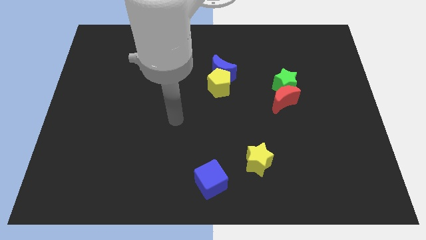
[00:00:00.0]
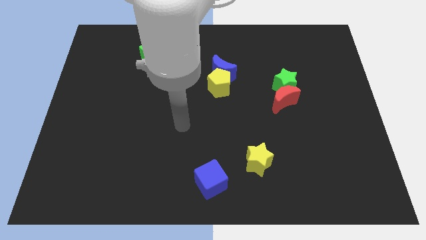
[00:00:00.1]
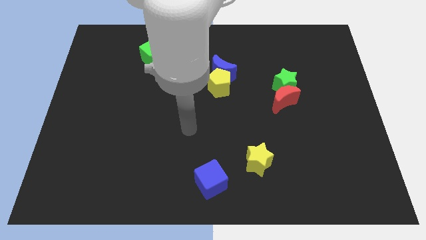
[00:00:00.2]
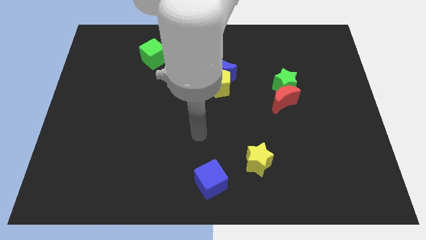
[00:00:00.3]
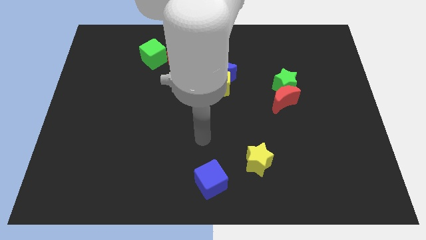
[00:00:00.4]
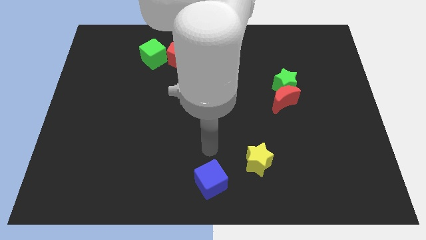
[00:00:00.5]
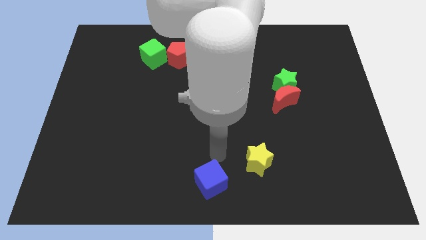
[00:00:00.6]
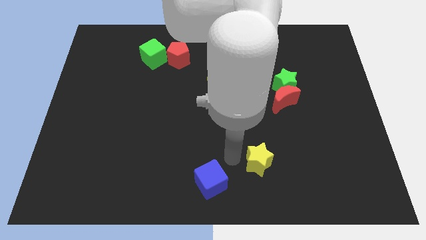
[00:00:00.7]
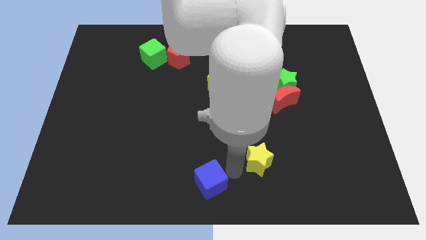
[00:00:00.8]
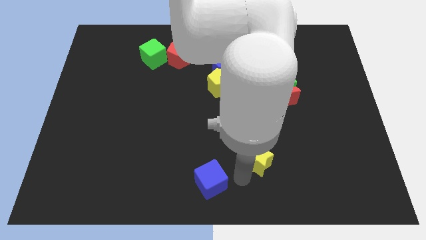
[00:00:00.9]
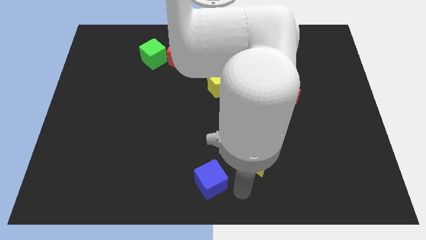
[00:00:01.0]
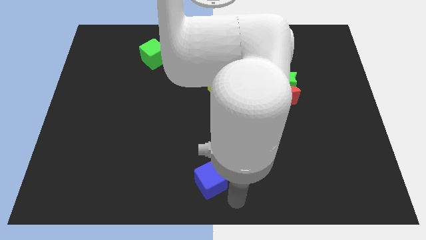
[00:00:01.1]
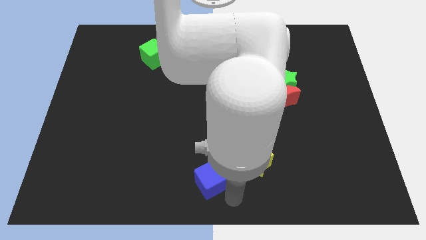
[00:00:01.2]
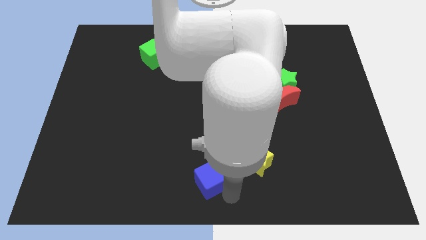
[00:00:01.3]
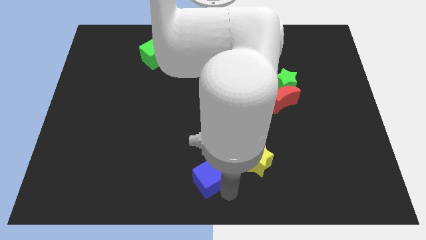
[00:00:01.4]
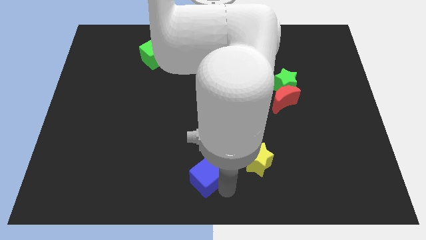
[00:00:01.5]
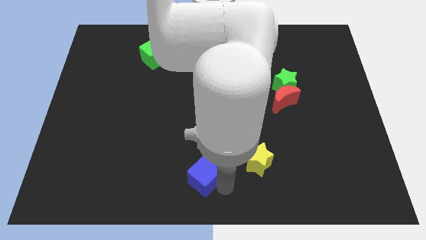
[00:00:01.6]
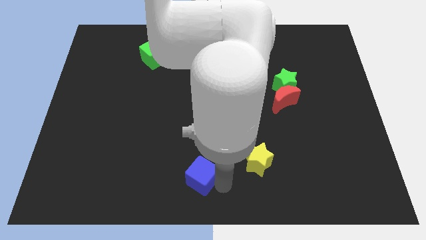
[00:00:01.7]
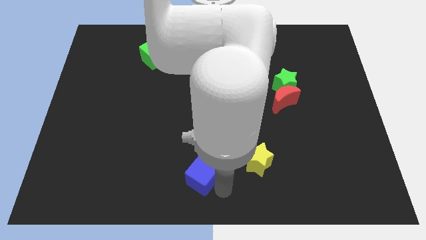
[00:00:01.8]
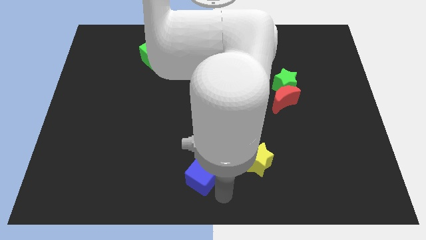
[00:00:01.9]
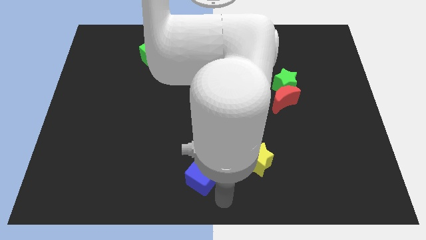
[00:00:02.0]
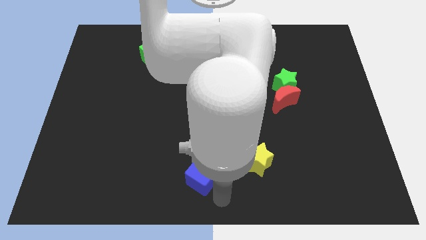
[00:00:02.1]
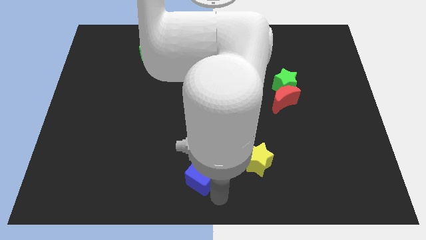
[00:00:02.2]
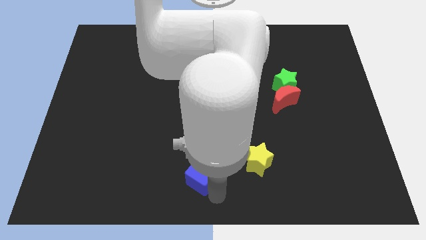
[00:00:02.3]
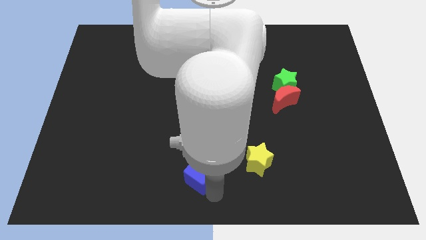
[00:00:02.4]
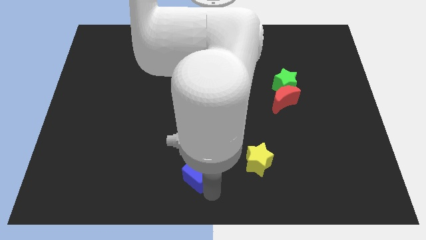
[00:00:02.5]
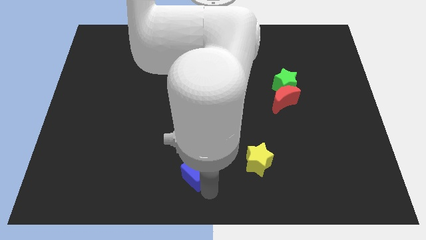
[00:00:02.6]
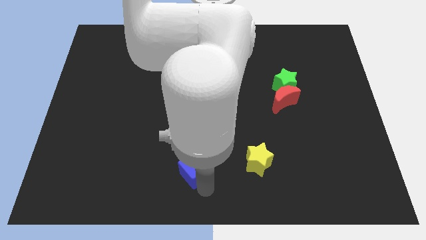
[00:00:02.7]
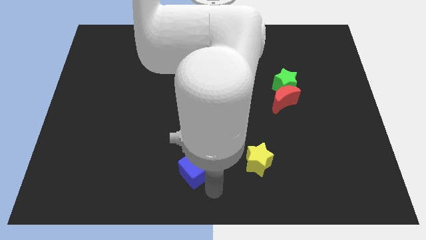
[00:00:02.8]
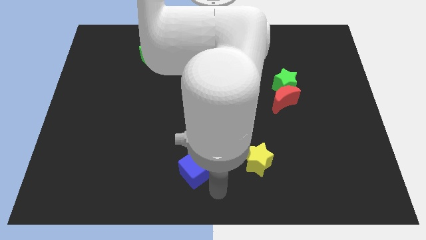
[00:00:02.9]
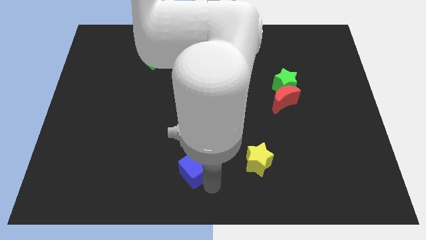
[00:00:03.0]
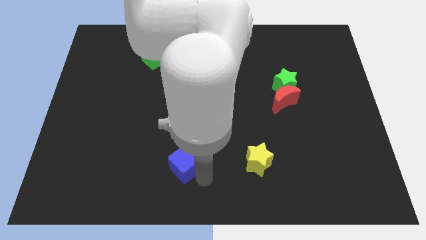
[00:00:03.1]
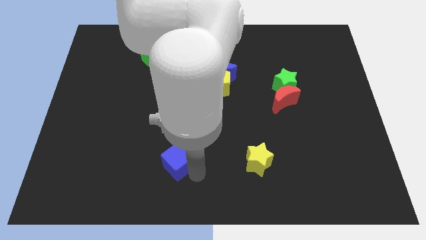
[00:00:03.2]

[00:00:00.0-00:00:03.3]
push the blue cube upwards and left somewhat

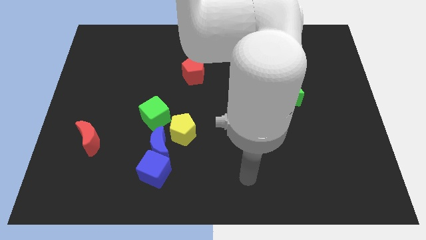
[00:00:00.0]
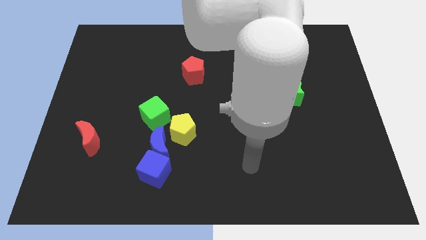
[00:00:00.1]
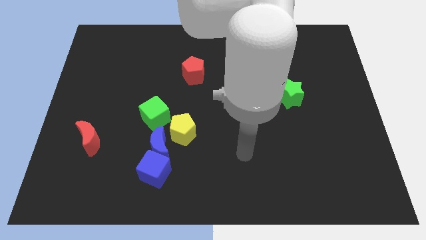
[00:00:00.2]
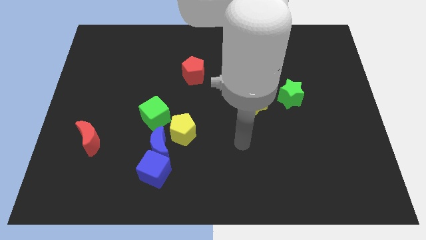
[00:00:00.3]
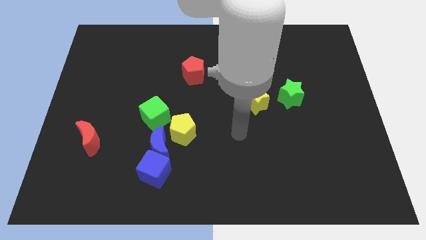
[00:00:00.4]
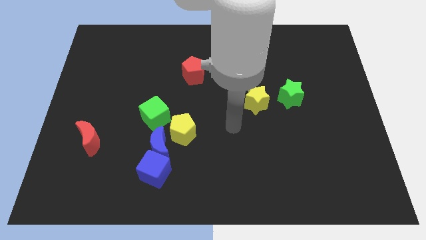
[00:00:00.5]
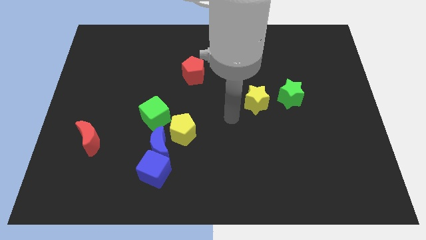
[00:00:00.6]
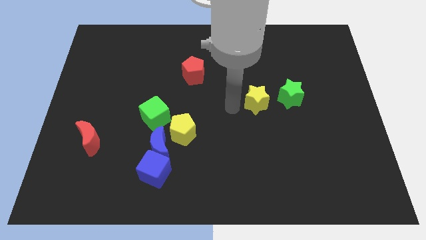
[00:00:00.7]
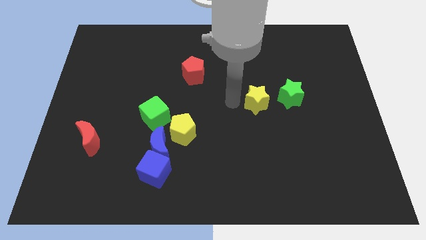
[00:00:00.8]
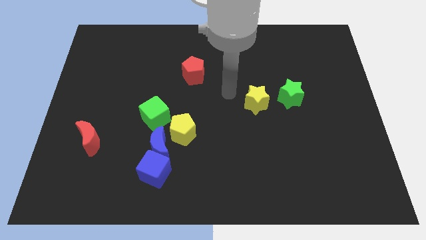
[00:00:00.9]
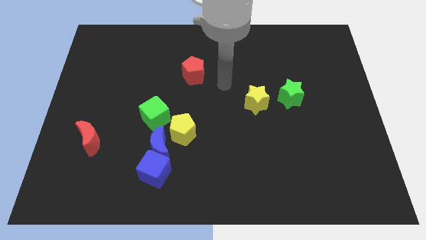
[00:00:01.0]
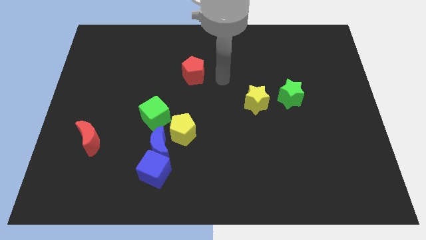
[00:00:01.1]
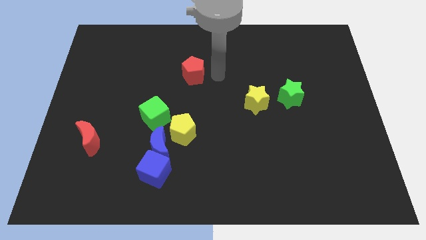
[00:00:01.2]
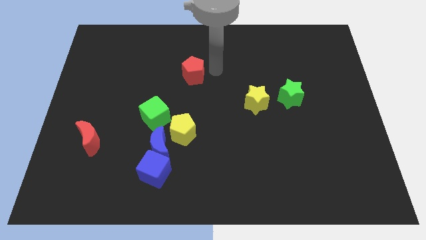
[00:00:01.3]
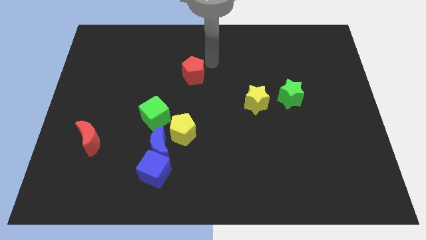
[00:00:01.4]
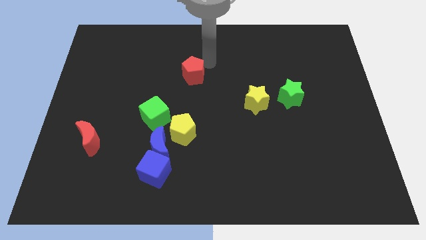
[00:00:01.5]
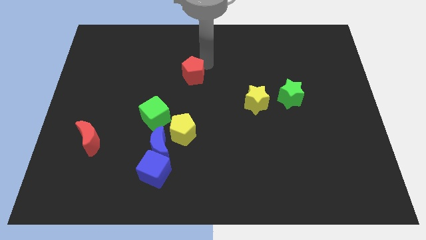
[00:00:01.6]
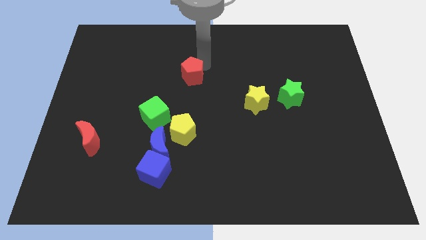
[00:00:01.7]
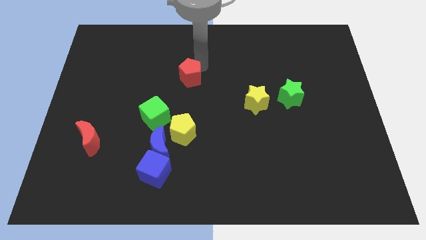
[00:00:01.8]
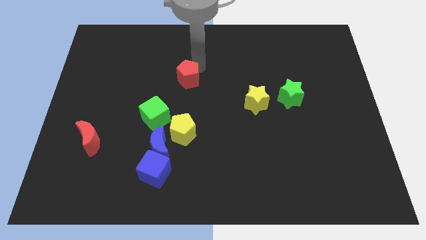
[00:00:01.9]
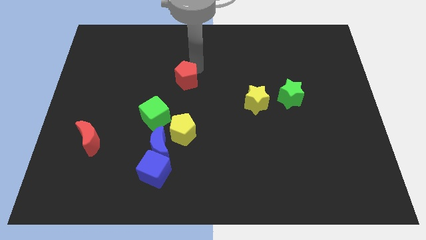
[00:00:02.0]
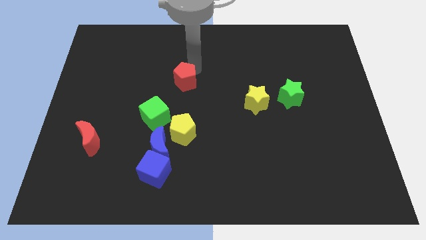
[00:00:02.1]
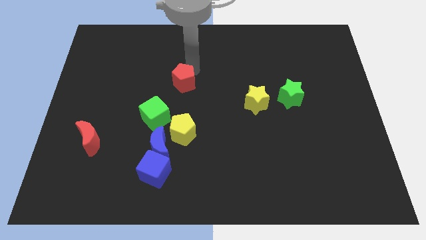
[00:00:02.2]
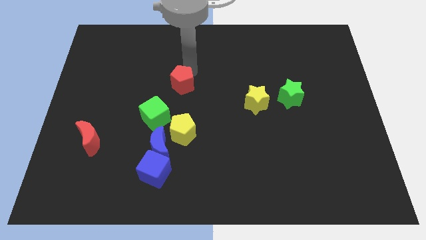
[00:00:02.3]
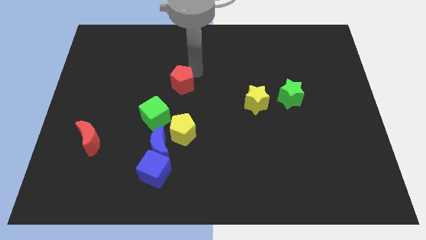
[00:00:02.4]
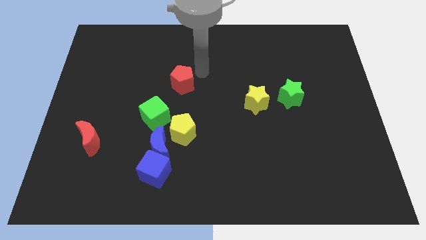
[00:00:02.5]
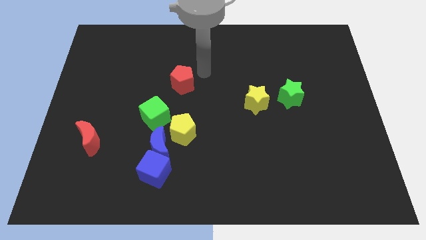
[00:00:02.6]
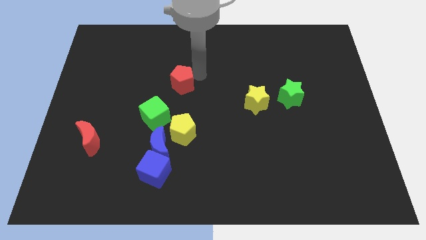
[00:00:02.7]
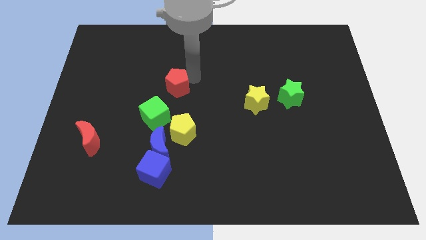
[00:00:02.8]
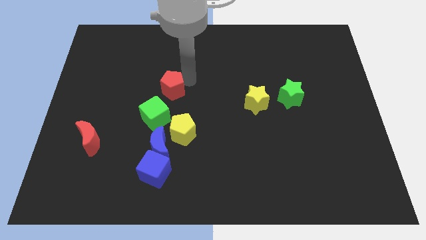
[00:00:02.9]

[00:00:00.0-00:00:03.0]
slightly move the red pentagon down and left diagonally

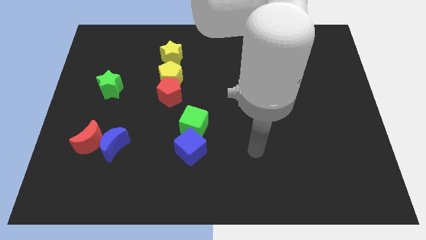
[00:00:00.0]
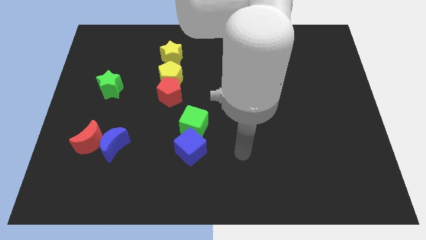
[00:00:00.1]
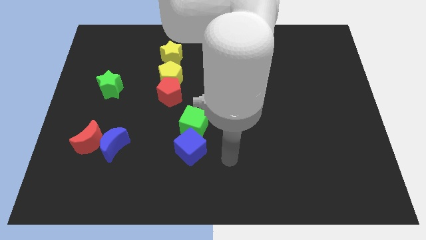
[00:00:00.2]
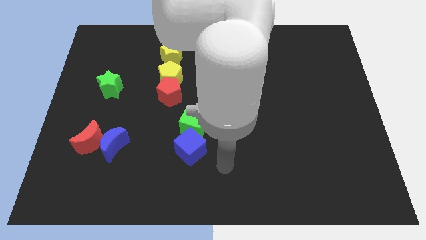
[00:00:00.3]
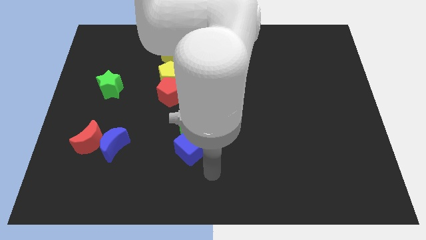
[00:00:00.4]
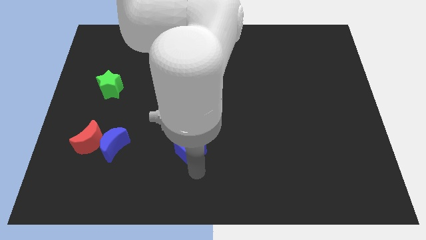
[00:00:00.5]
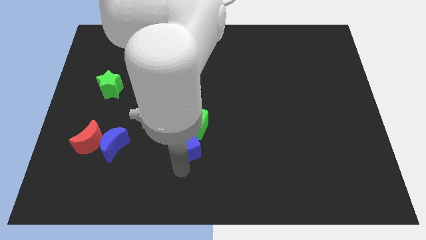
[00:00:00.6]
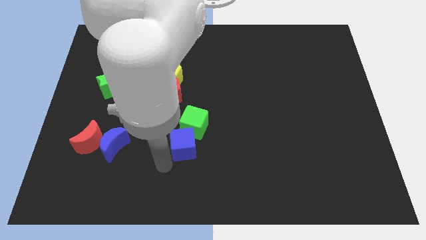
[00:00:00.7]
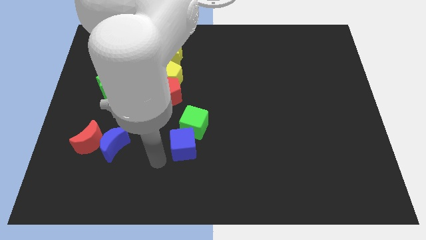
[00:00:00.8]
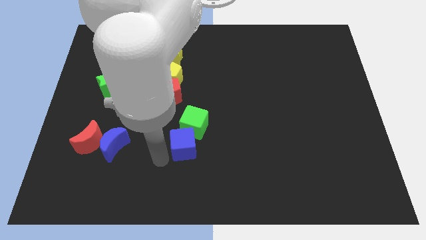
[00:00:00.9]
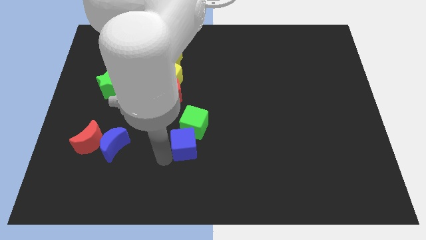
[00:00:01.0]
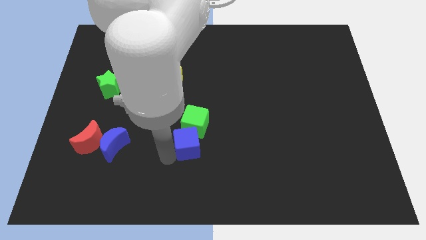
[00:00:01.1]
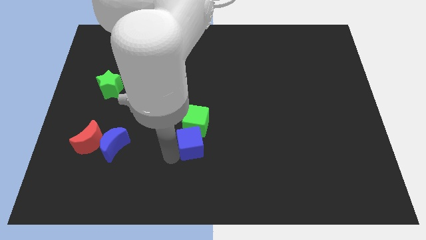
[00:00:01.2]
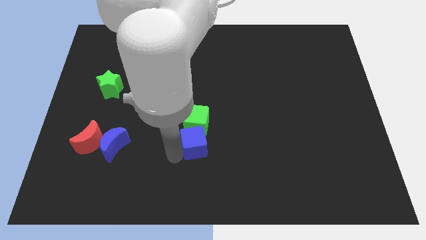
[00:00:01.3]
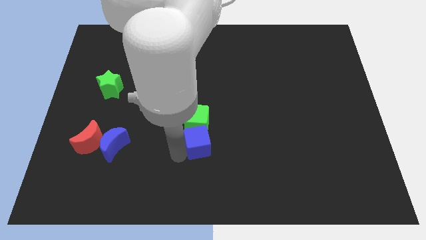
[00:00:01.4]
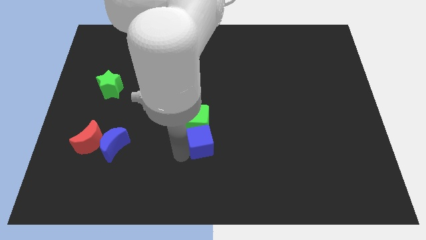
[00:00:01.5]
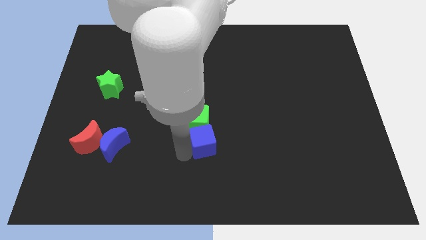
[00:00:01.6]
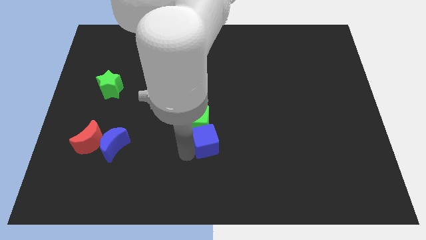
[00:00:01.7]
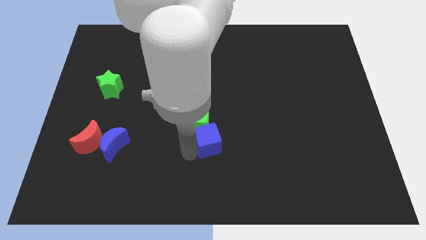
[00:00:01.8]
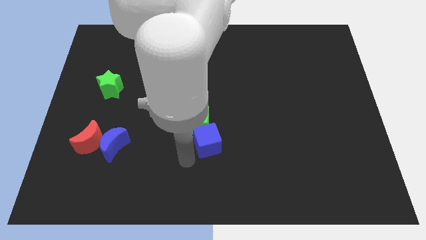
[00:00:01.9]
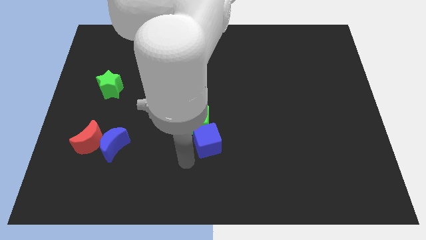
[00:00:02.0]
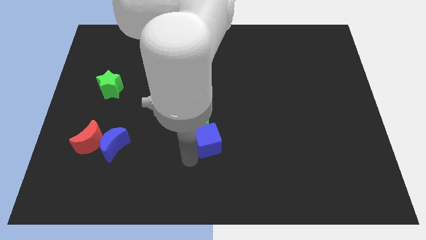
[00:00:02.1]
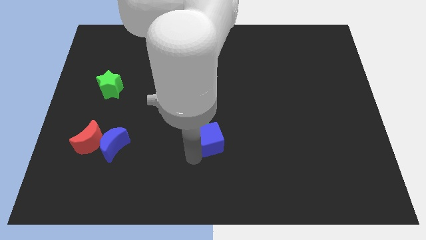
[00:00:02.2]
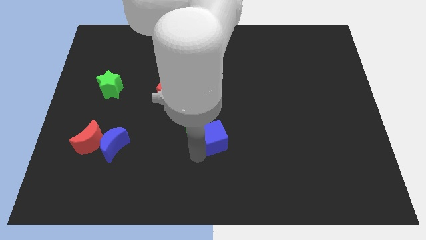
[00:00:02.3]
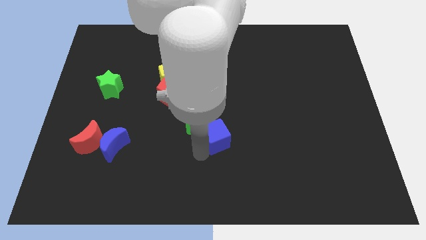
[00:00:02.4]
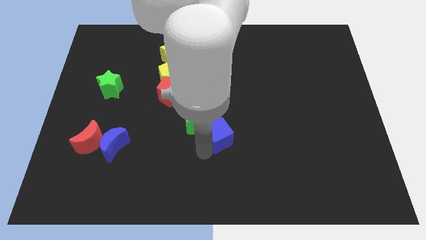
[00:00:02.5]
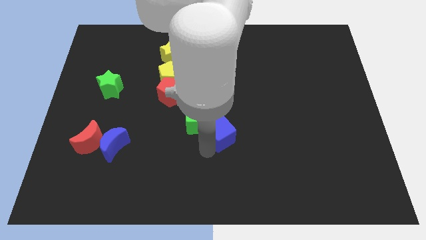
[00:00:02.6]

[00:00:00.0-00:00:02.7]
push the blue cube a little upwards and right diagonally
